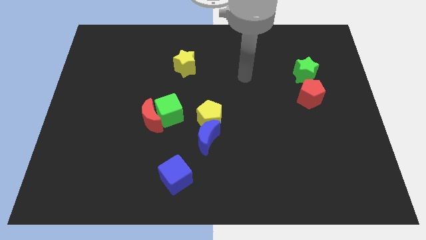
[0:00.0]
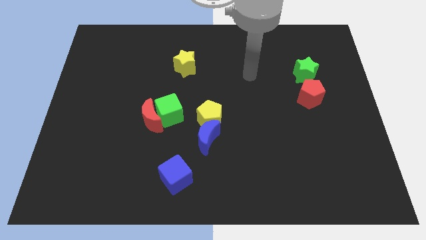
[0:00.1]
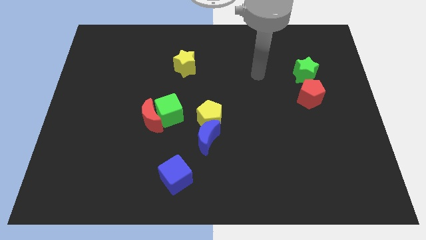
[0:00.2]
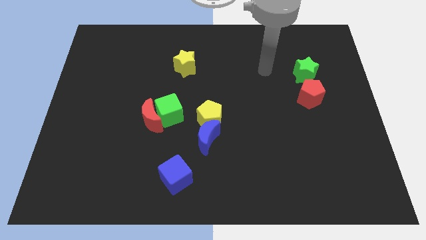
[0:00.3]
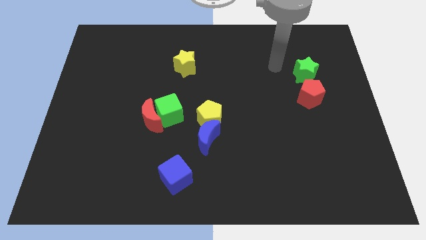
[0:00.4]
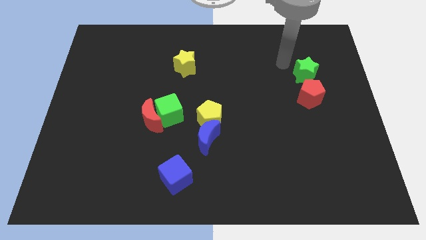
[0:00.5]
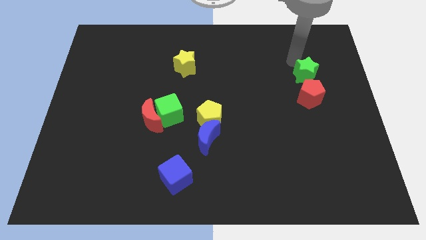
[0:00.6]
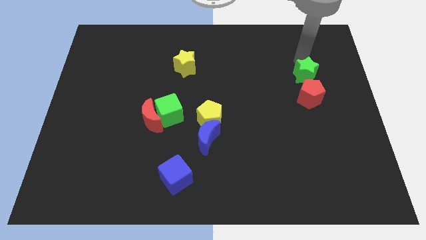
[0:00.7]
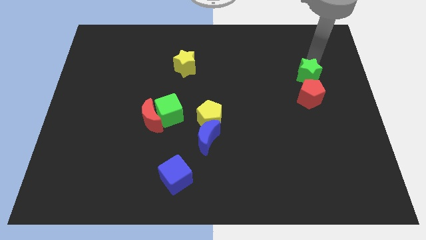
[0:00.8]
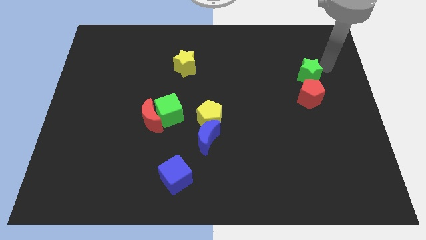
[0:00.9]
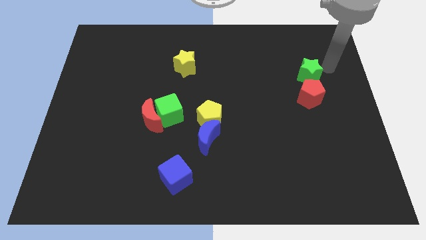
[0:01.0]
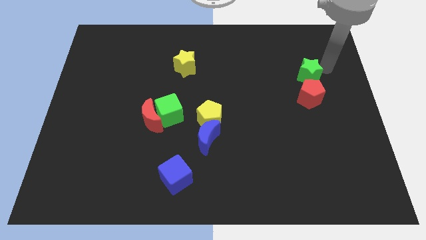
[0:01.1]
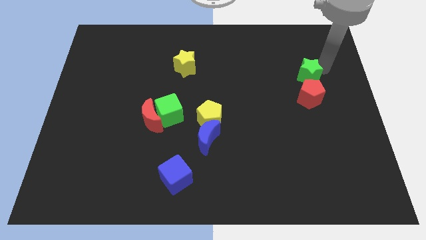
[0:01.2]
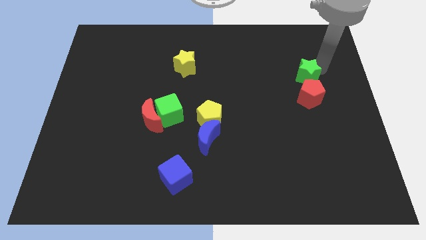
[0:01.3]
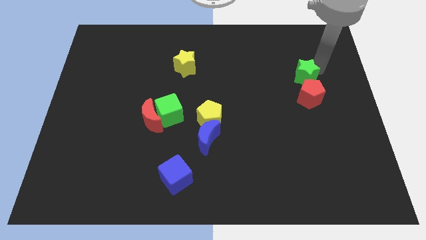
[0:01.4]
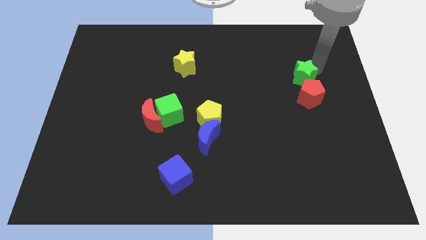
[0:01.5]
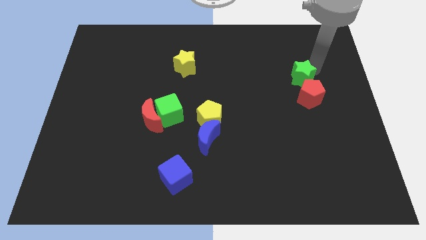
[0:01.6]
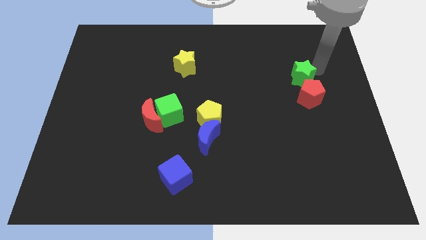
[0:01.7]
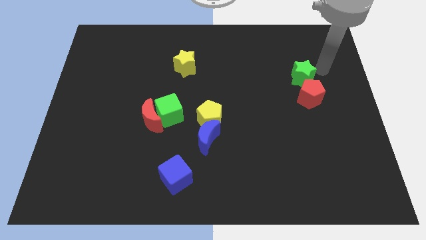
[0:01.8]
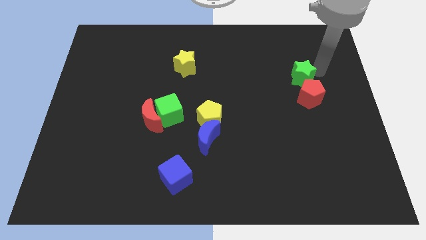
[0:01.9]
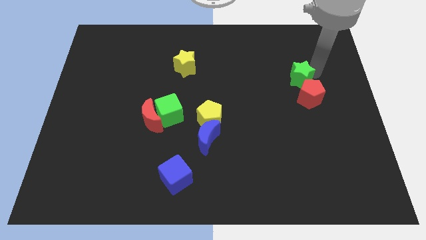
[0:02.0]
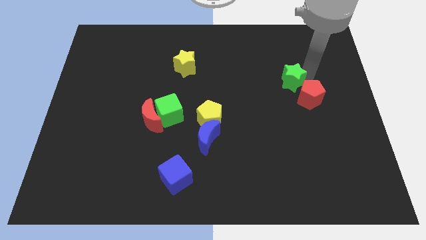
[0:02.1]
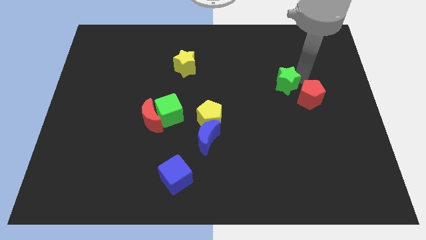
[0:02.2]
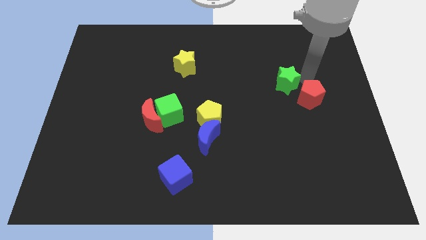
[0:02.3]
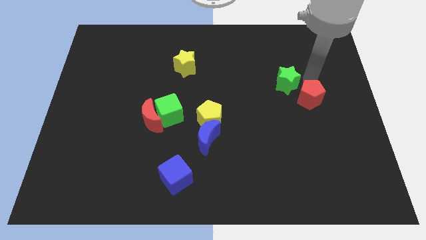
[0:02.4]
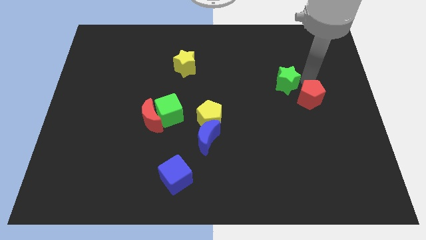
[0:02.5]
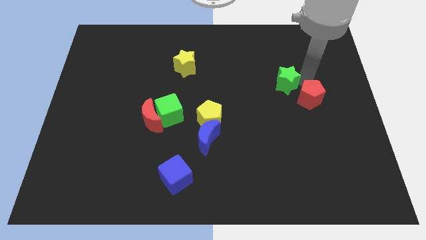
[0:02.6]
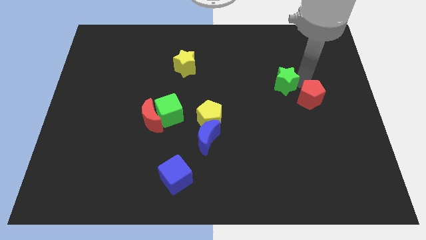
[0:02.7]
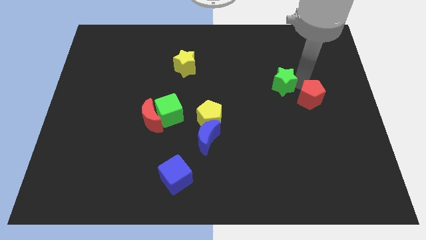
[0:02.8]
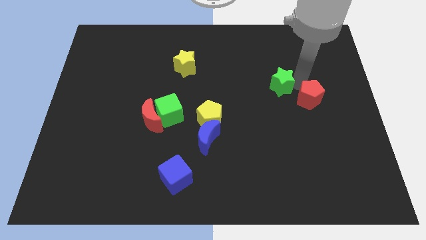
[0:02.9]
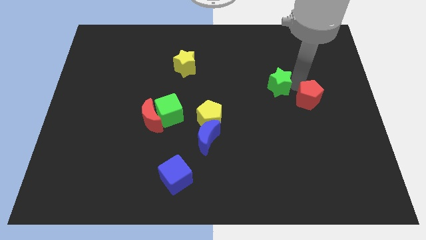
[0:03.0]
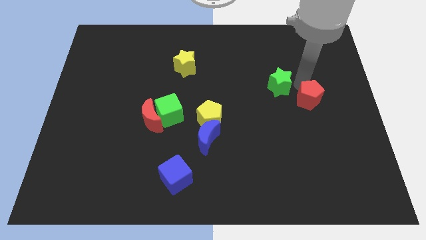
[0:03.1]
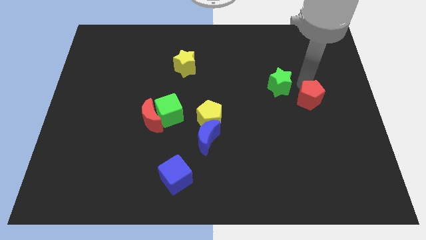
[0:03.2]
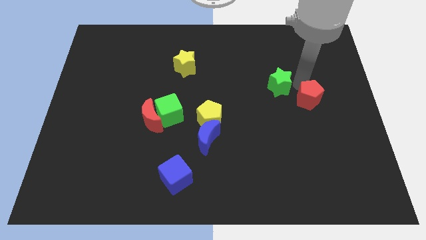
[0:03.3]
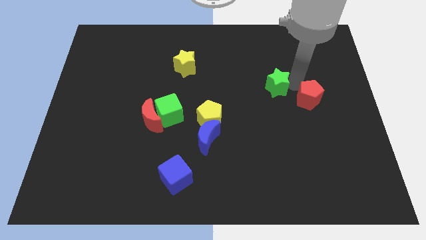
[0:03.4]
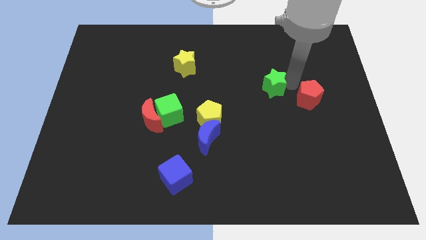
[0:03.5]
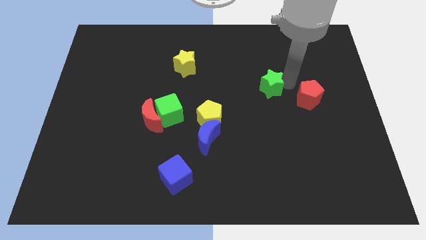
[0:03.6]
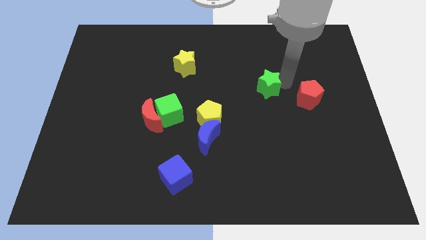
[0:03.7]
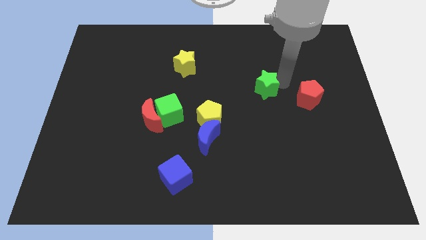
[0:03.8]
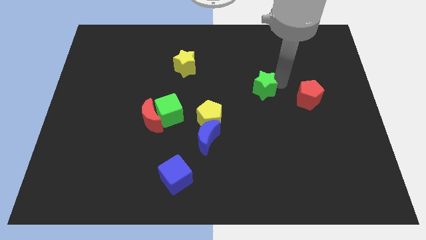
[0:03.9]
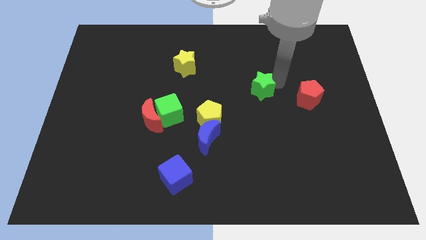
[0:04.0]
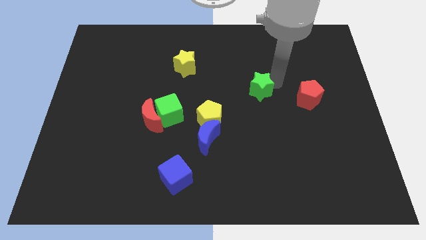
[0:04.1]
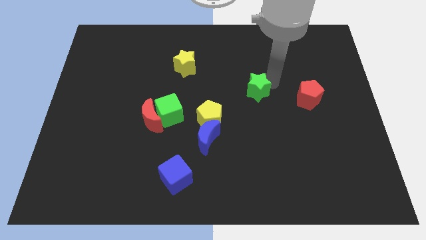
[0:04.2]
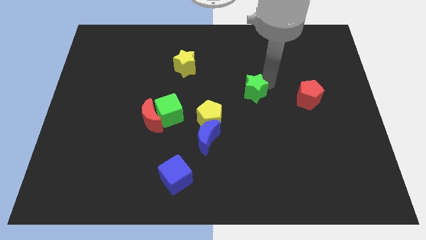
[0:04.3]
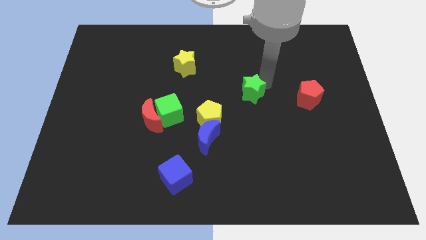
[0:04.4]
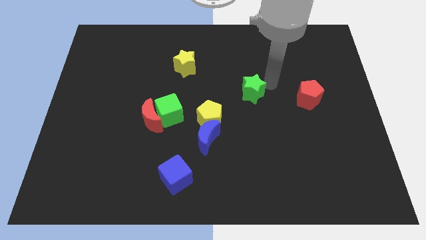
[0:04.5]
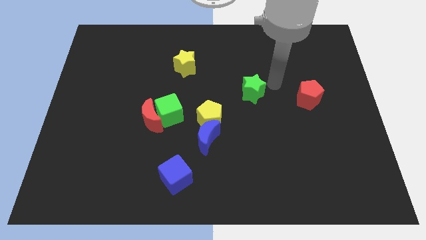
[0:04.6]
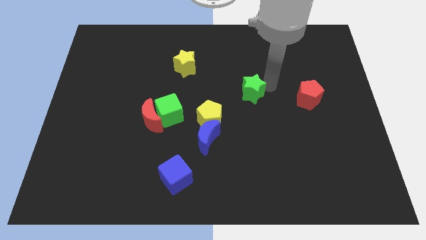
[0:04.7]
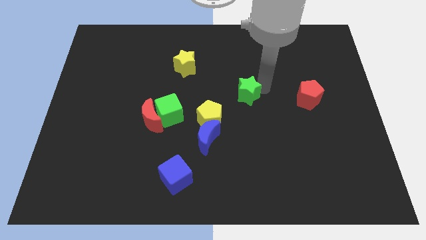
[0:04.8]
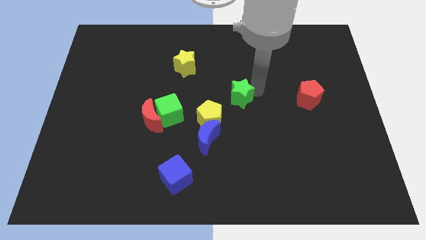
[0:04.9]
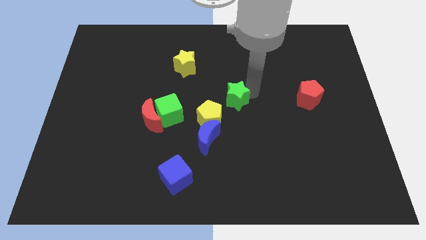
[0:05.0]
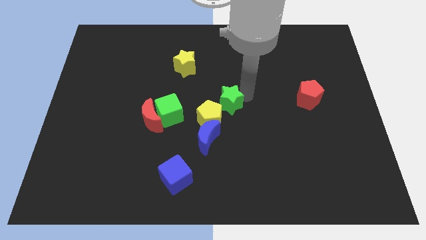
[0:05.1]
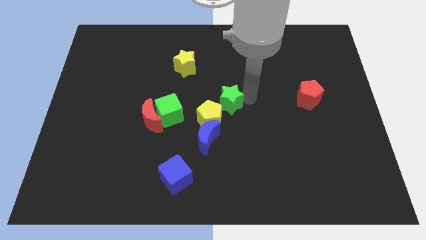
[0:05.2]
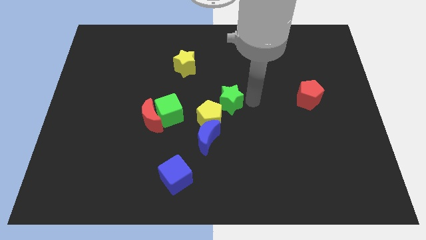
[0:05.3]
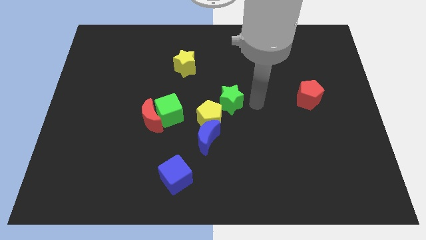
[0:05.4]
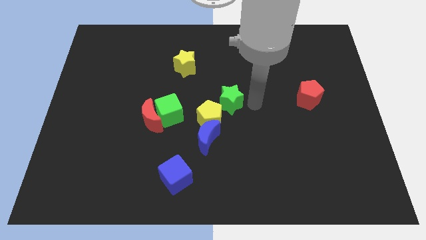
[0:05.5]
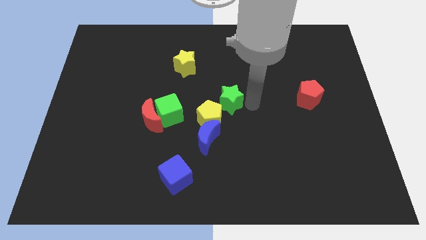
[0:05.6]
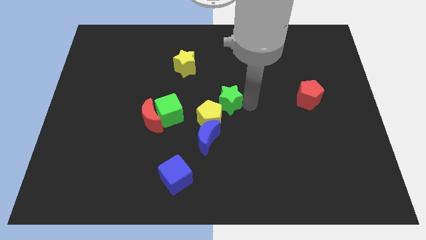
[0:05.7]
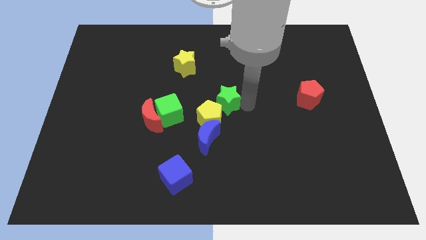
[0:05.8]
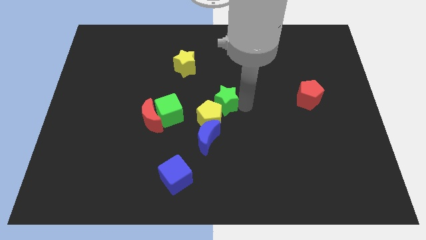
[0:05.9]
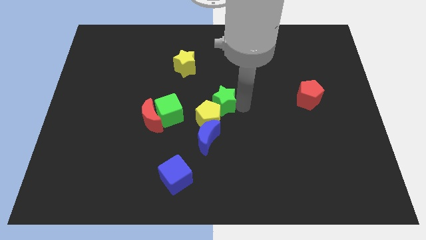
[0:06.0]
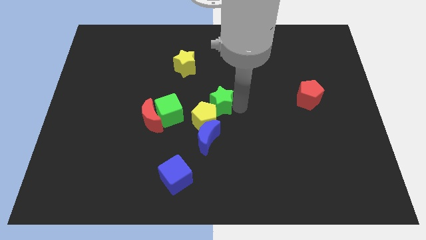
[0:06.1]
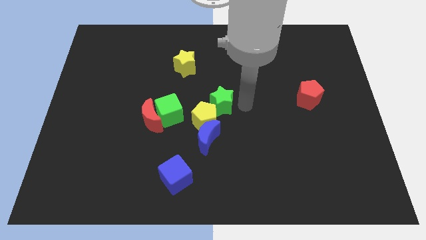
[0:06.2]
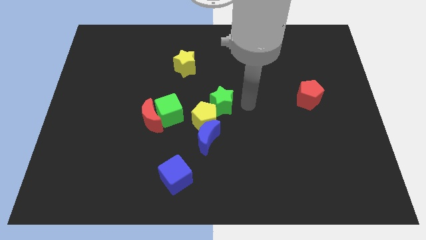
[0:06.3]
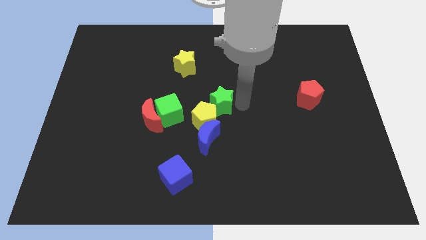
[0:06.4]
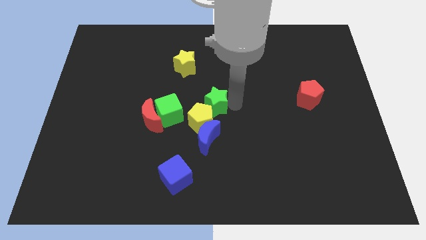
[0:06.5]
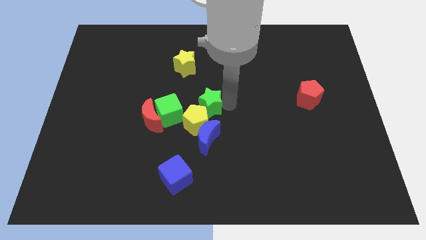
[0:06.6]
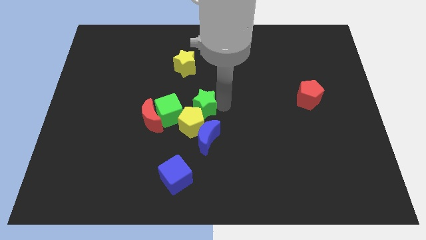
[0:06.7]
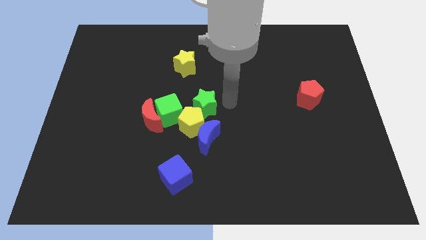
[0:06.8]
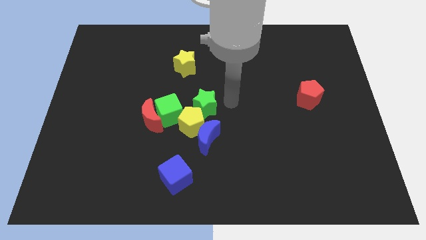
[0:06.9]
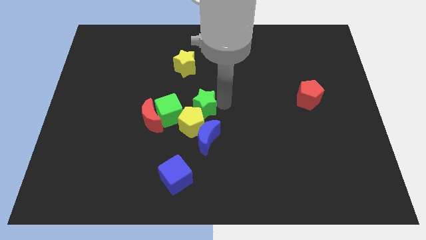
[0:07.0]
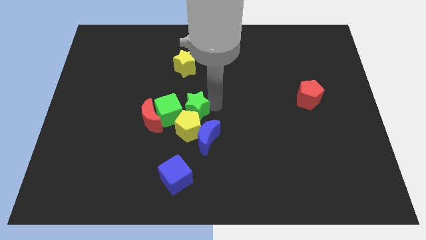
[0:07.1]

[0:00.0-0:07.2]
move the green star next to the green cube

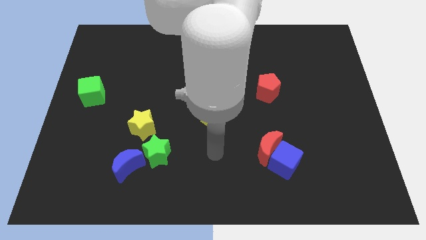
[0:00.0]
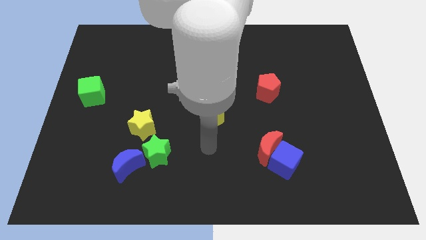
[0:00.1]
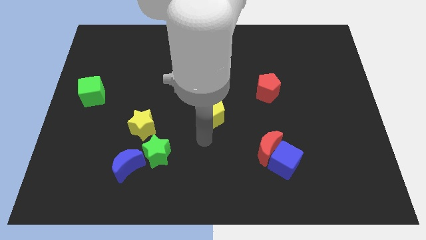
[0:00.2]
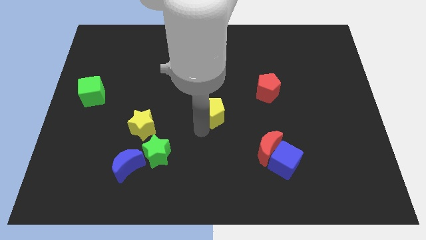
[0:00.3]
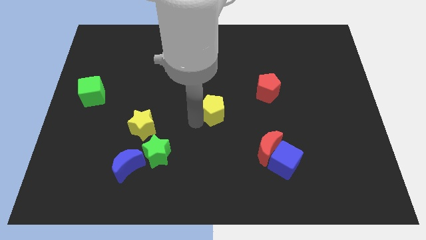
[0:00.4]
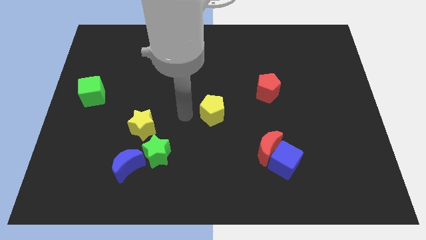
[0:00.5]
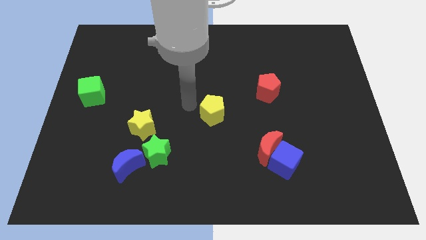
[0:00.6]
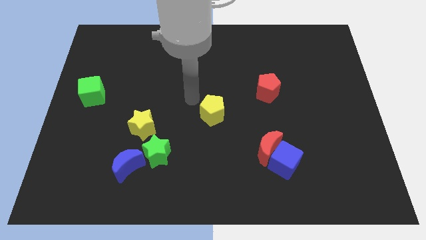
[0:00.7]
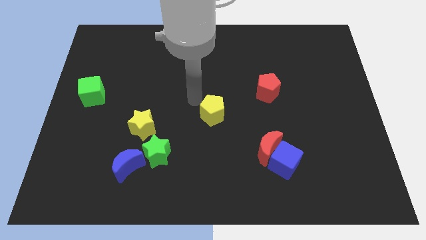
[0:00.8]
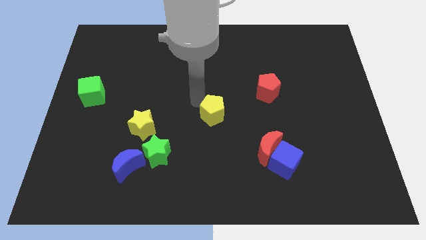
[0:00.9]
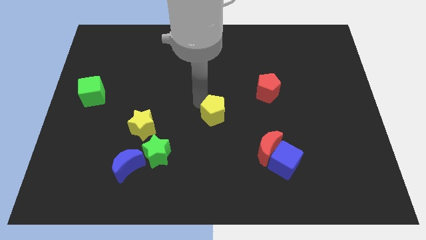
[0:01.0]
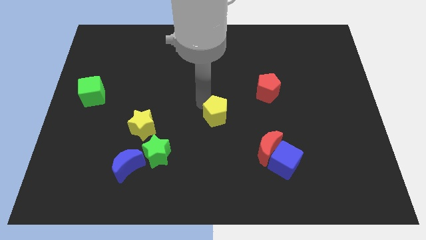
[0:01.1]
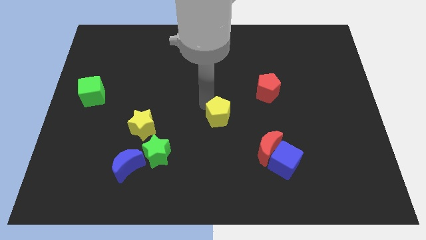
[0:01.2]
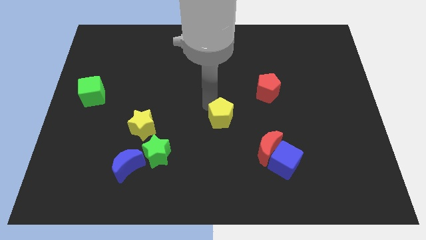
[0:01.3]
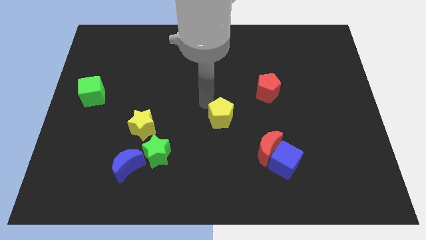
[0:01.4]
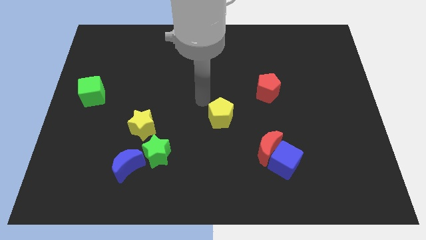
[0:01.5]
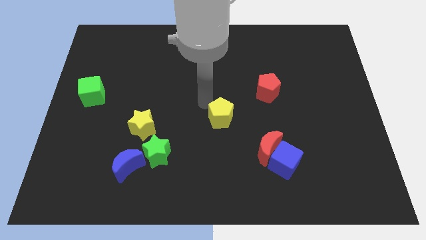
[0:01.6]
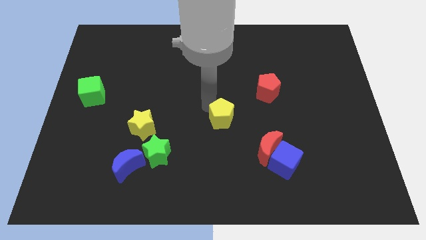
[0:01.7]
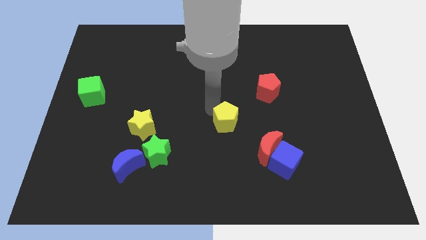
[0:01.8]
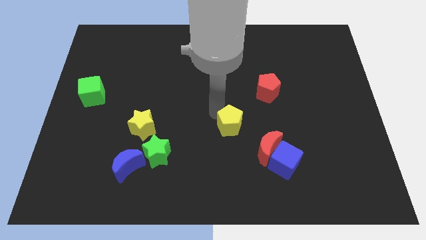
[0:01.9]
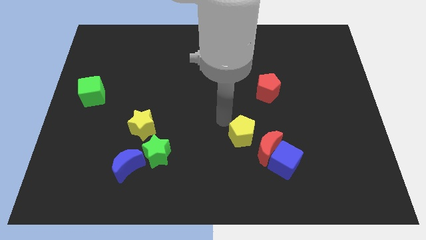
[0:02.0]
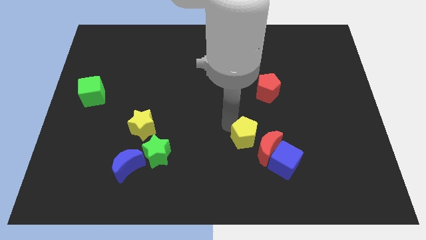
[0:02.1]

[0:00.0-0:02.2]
push the yellow pentagon next to the red moon
